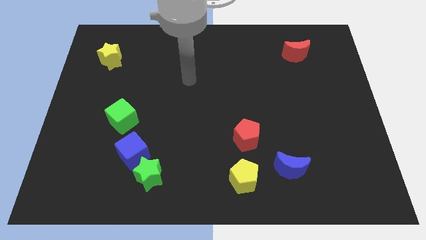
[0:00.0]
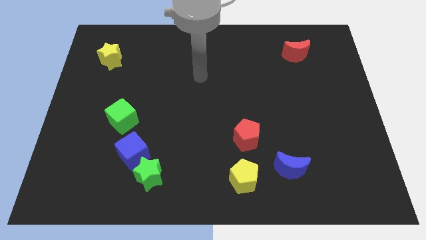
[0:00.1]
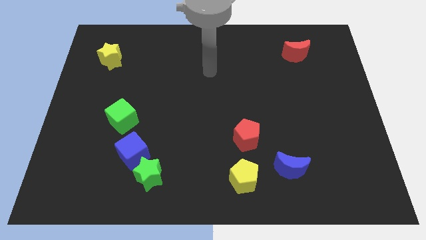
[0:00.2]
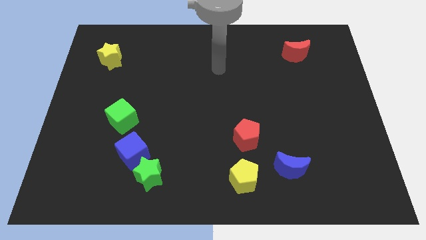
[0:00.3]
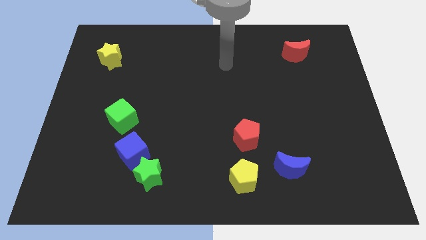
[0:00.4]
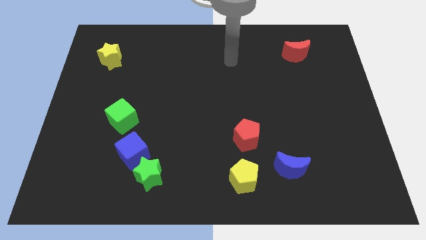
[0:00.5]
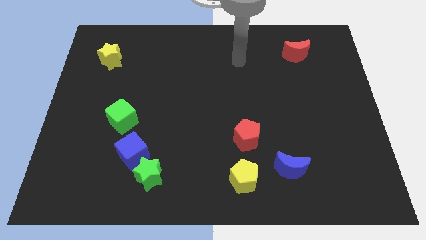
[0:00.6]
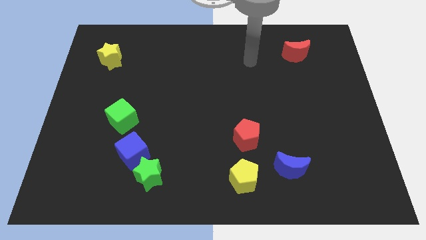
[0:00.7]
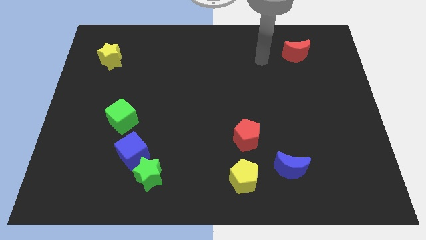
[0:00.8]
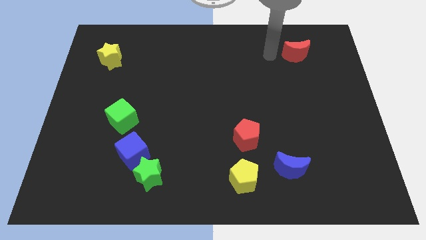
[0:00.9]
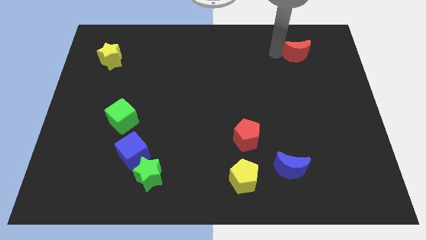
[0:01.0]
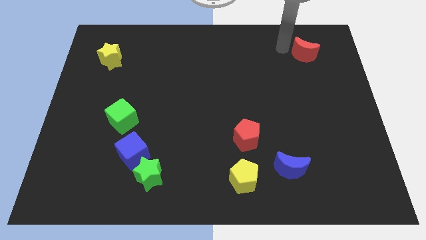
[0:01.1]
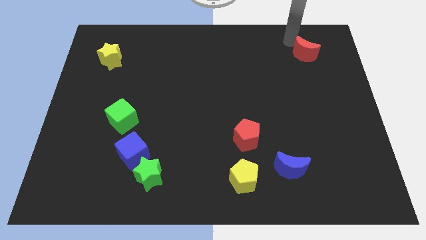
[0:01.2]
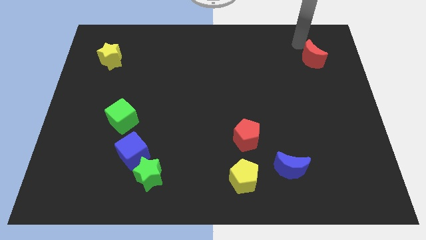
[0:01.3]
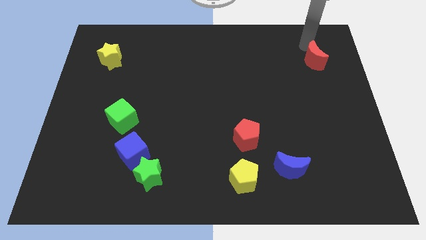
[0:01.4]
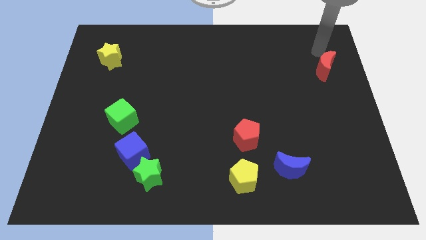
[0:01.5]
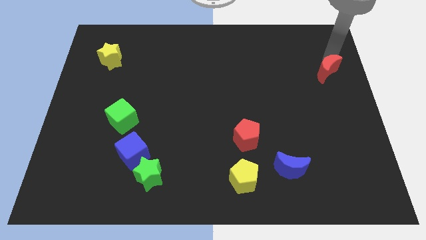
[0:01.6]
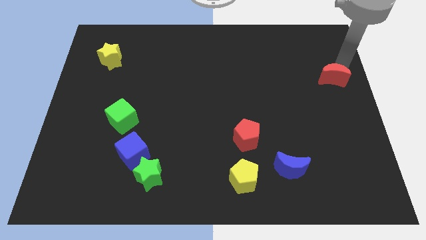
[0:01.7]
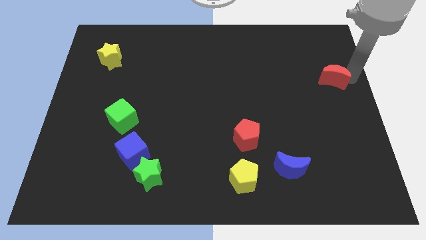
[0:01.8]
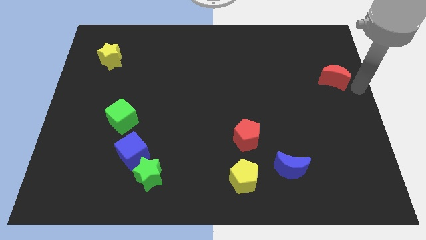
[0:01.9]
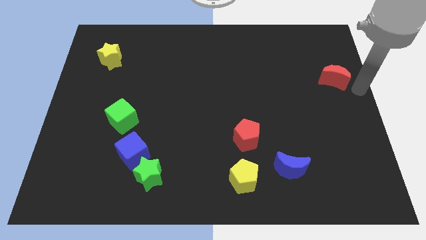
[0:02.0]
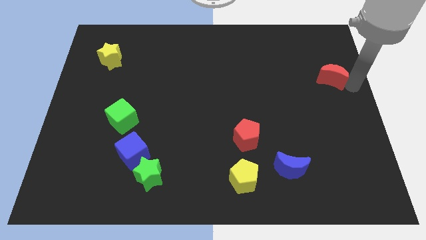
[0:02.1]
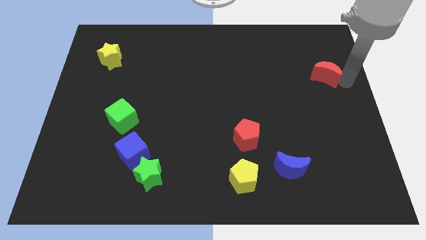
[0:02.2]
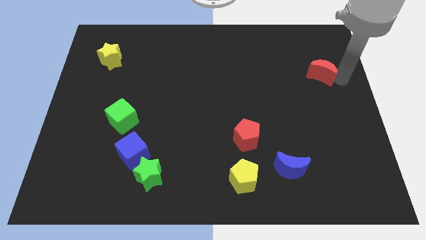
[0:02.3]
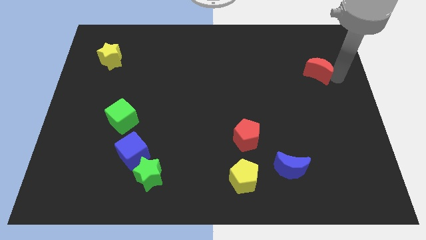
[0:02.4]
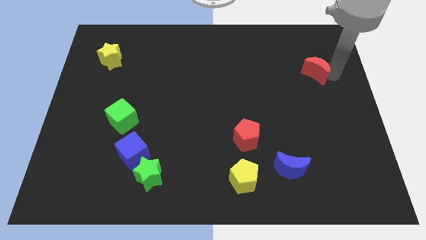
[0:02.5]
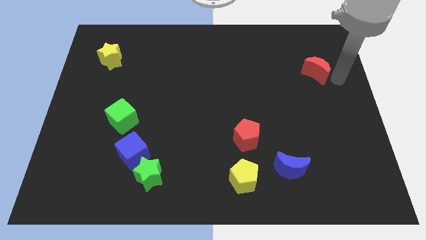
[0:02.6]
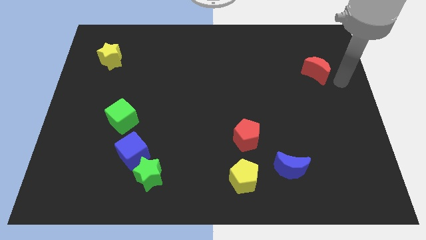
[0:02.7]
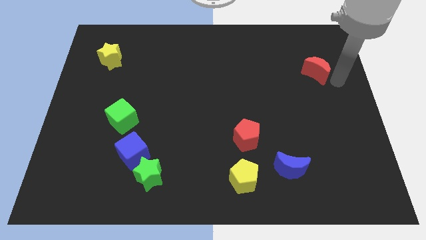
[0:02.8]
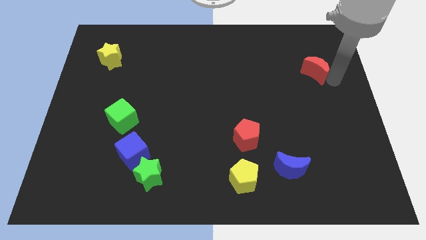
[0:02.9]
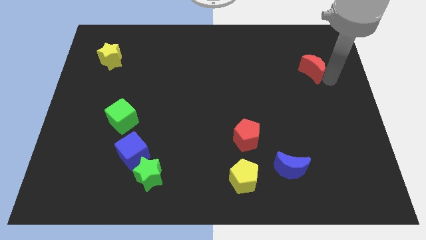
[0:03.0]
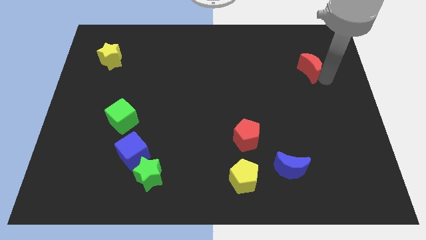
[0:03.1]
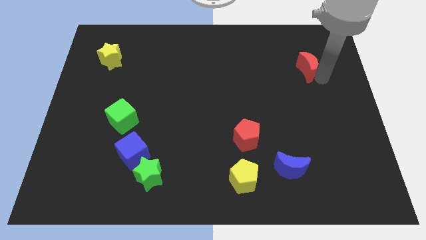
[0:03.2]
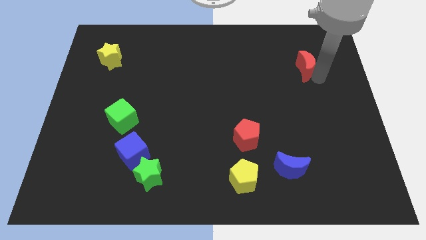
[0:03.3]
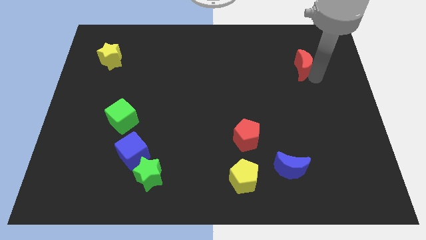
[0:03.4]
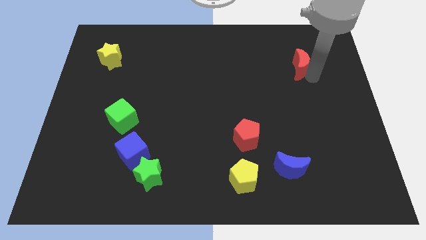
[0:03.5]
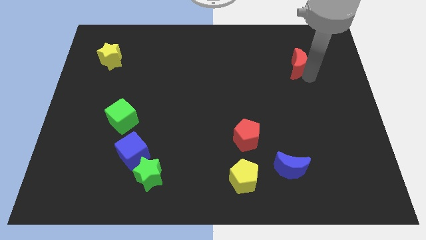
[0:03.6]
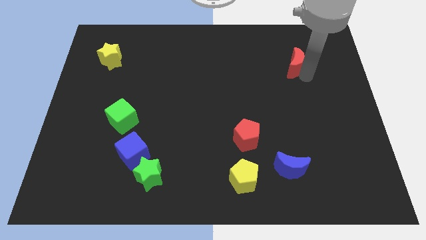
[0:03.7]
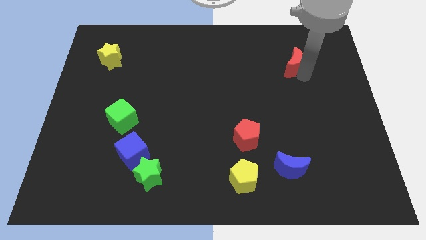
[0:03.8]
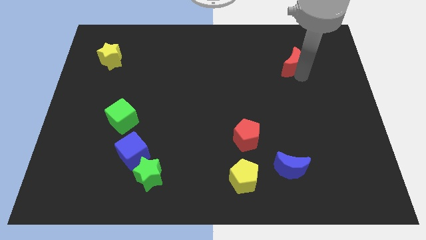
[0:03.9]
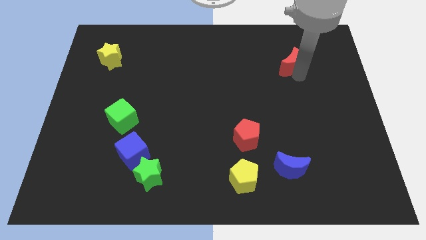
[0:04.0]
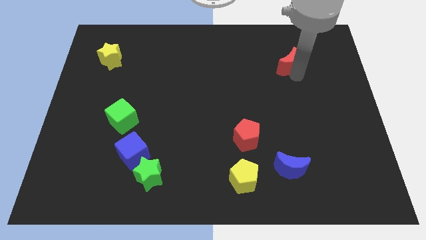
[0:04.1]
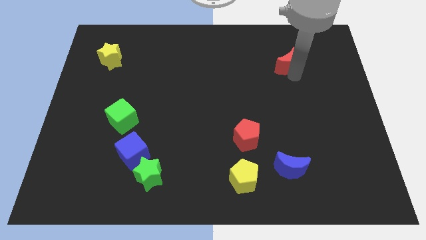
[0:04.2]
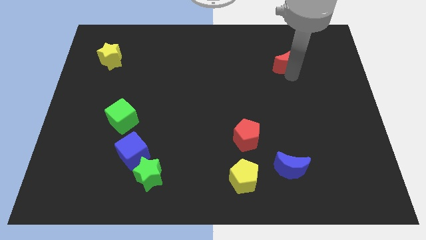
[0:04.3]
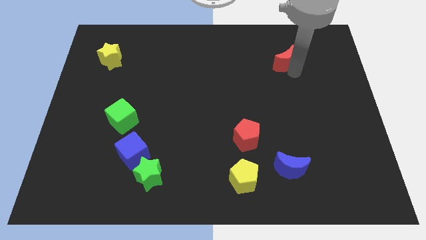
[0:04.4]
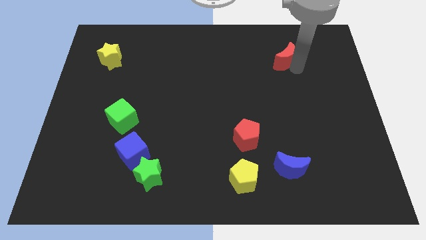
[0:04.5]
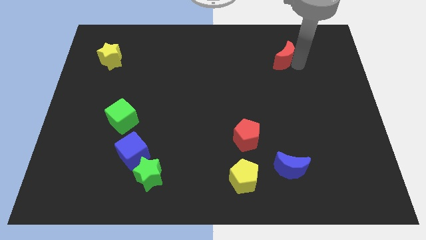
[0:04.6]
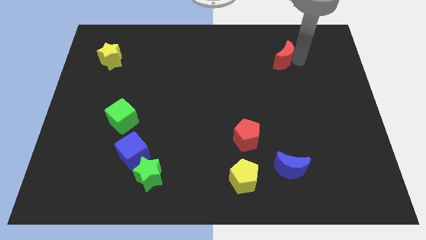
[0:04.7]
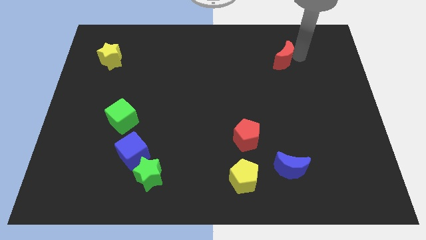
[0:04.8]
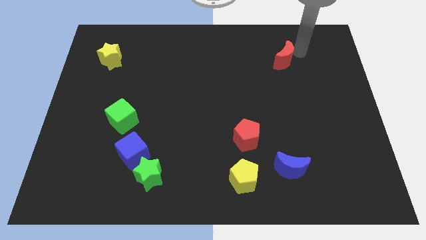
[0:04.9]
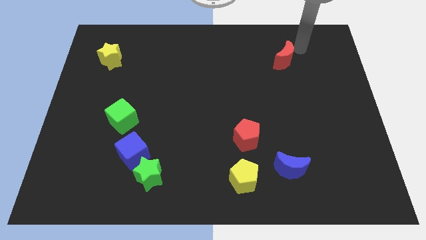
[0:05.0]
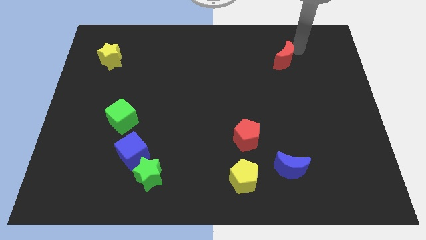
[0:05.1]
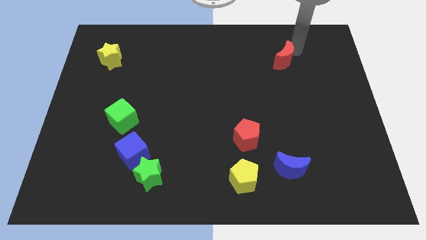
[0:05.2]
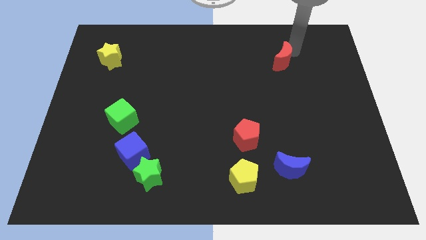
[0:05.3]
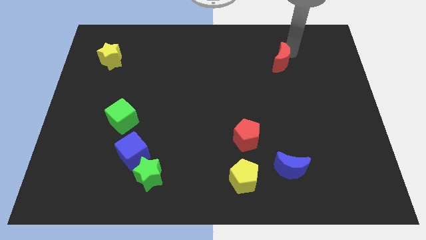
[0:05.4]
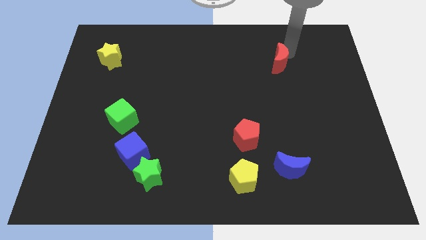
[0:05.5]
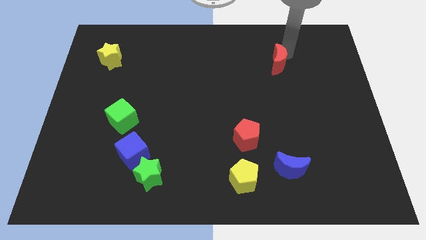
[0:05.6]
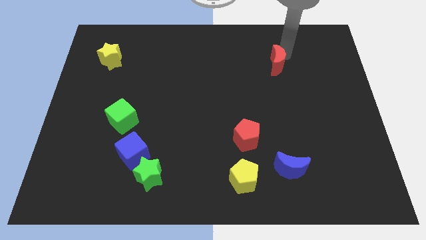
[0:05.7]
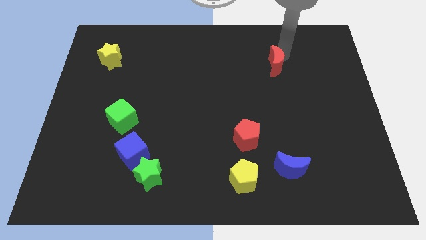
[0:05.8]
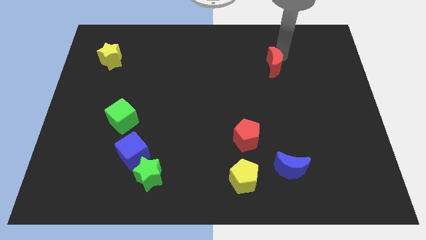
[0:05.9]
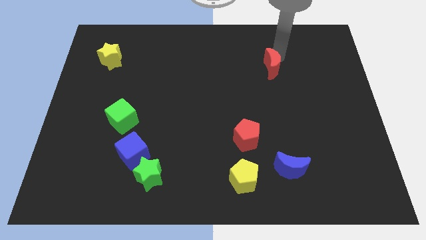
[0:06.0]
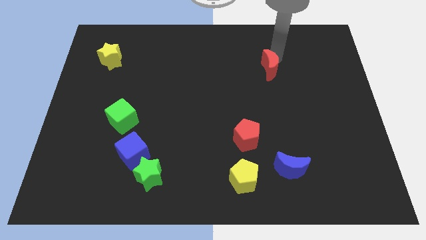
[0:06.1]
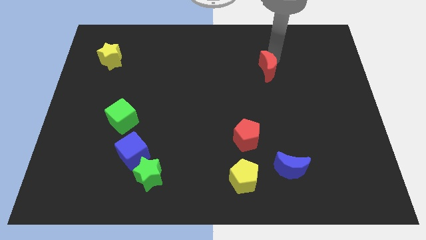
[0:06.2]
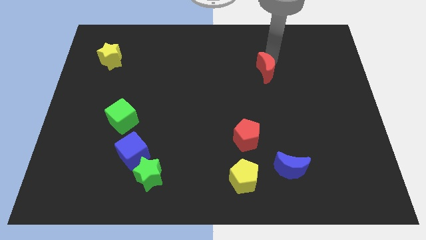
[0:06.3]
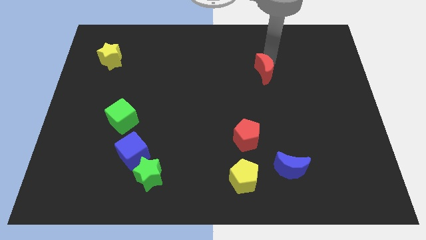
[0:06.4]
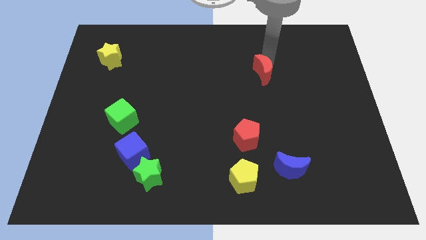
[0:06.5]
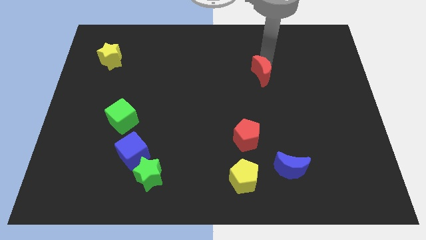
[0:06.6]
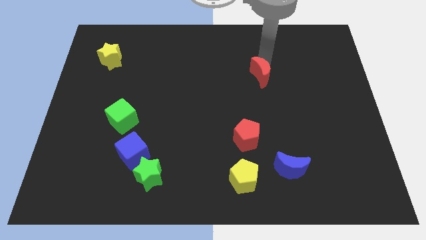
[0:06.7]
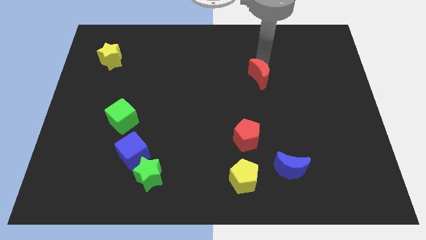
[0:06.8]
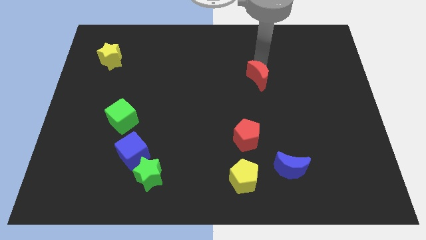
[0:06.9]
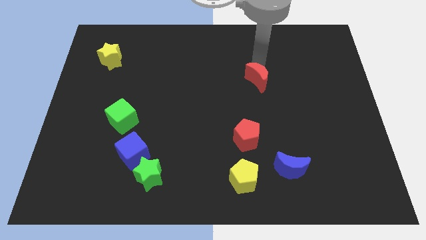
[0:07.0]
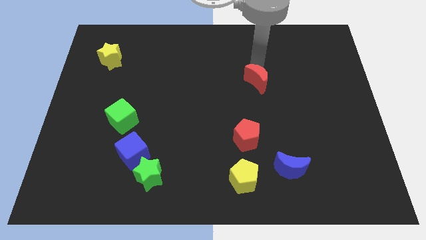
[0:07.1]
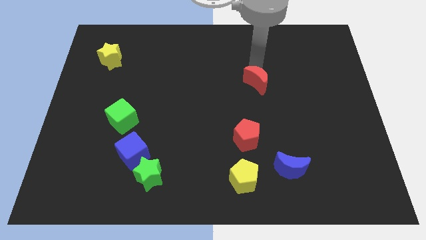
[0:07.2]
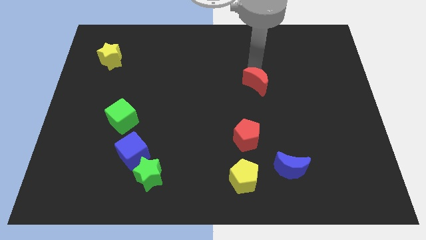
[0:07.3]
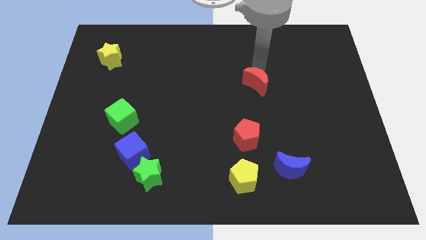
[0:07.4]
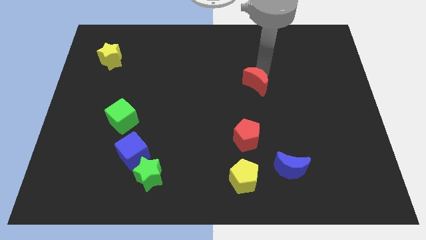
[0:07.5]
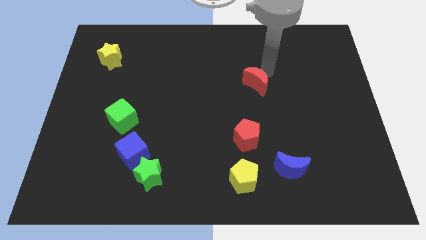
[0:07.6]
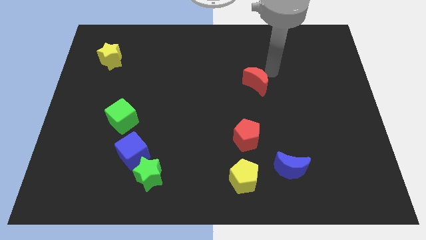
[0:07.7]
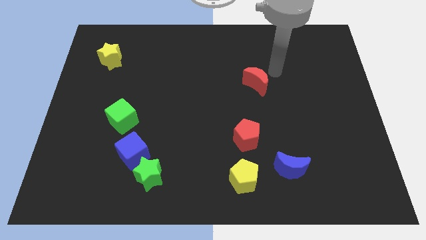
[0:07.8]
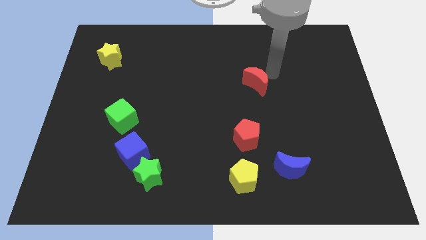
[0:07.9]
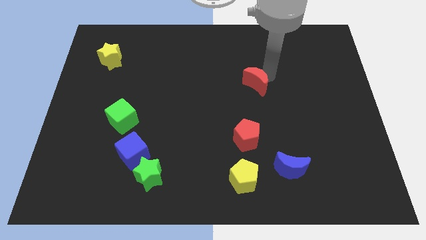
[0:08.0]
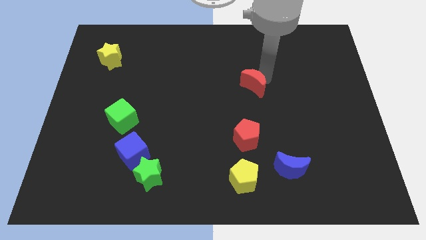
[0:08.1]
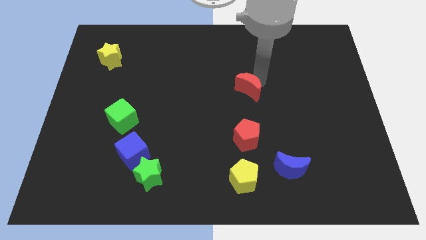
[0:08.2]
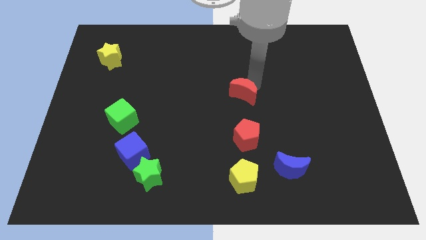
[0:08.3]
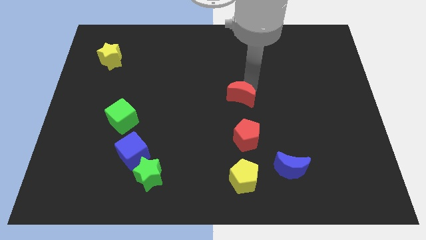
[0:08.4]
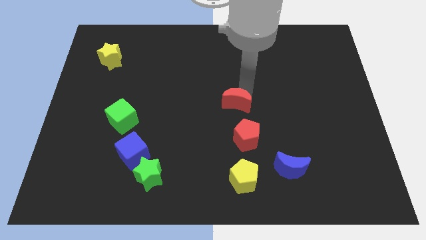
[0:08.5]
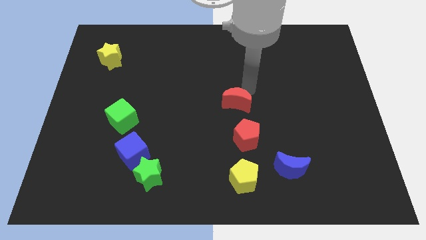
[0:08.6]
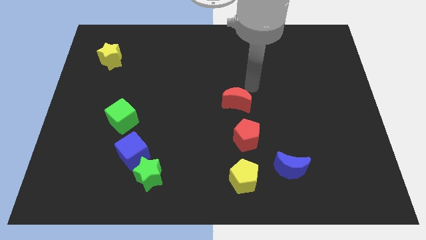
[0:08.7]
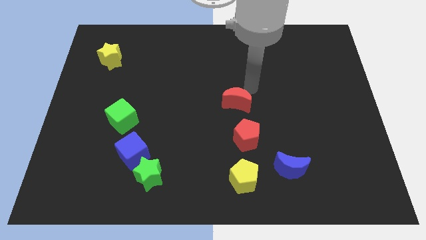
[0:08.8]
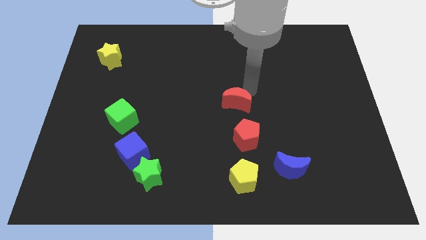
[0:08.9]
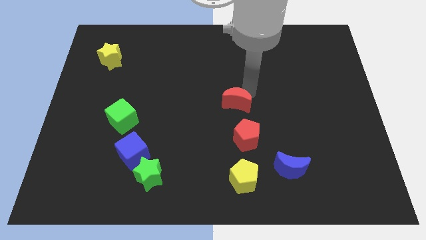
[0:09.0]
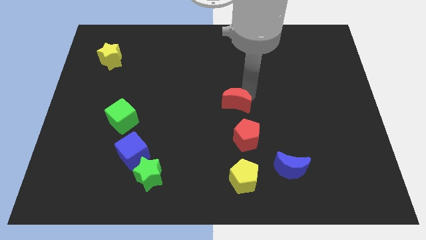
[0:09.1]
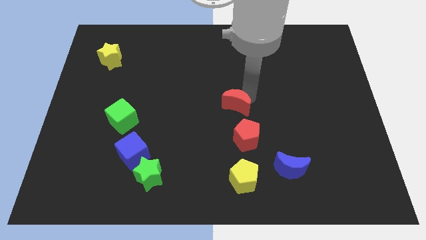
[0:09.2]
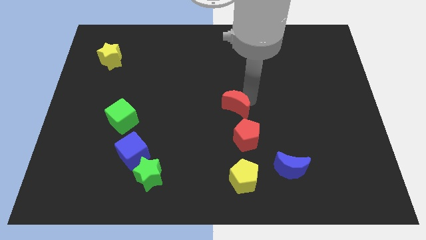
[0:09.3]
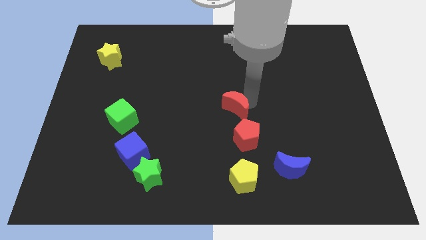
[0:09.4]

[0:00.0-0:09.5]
slide the red moon to the top left side of the red pentagon
